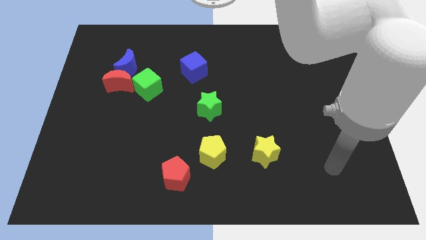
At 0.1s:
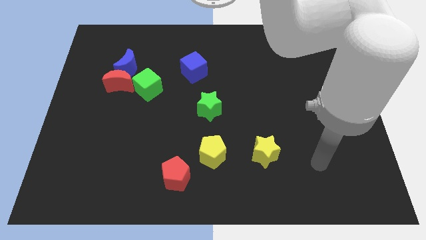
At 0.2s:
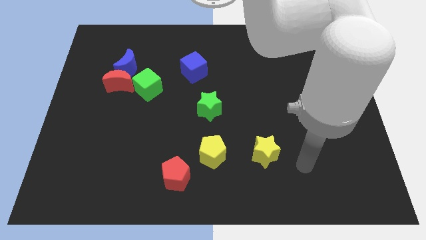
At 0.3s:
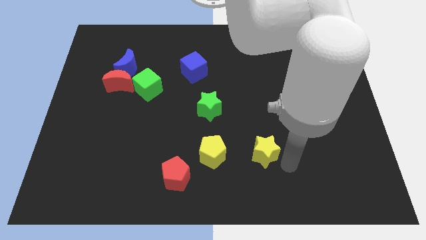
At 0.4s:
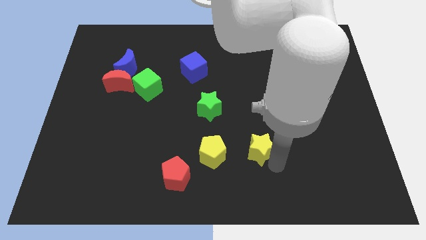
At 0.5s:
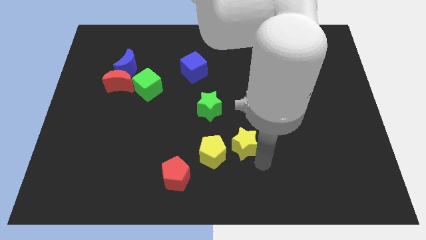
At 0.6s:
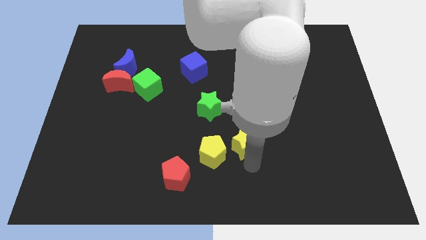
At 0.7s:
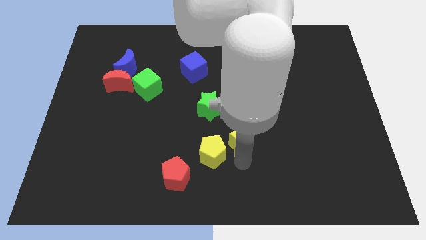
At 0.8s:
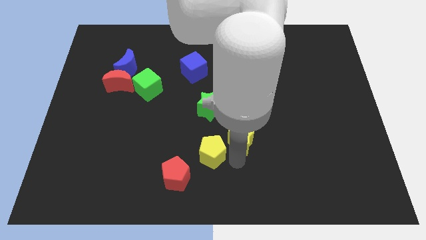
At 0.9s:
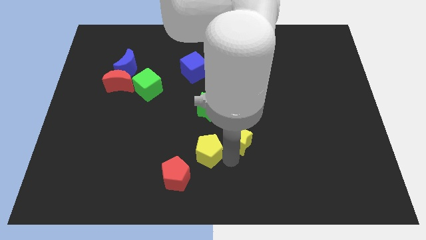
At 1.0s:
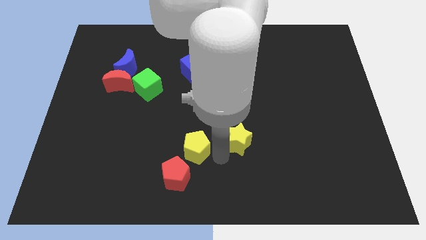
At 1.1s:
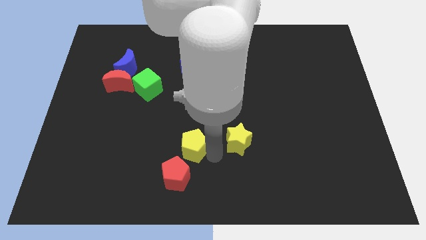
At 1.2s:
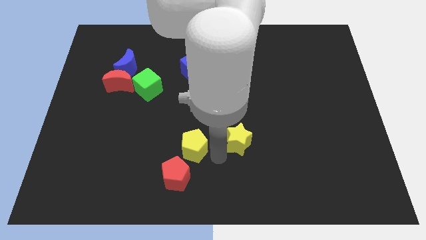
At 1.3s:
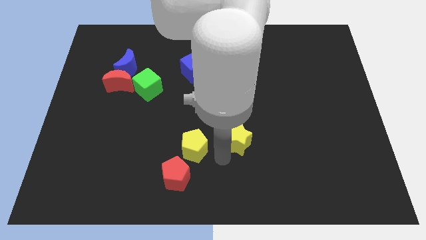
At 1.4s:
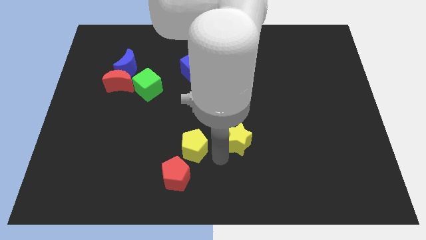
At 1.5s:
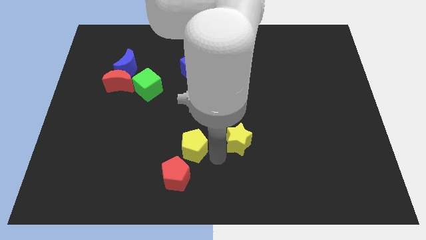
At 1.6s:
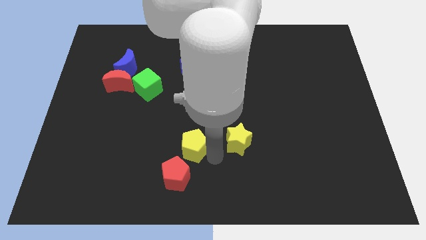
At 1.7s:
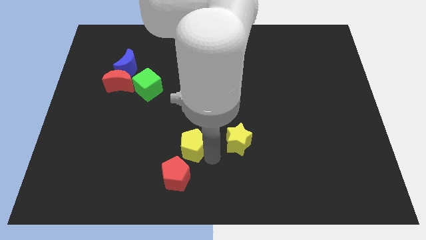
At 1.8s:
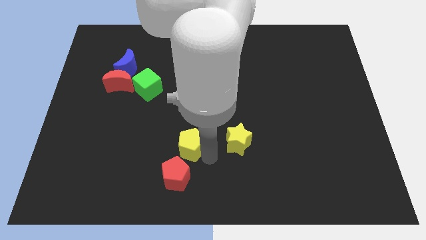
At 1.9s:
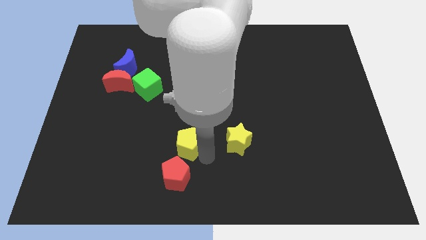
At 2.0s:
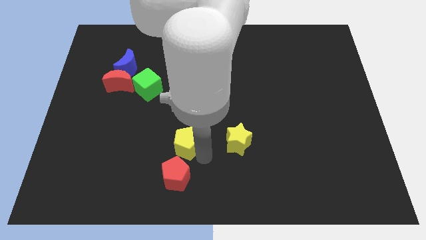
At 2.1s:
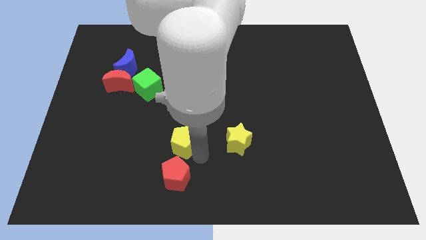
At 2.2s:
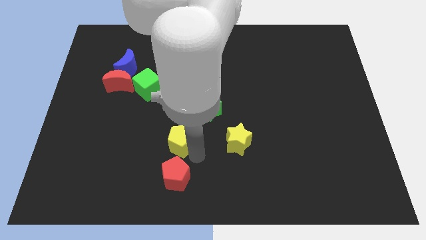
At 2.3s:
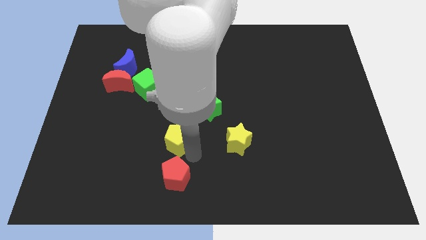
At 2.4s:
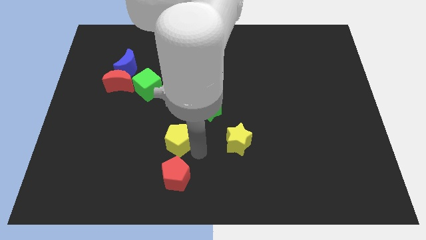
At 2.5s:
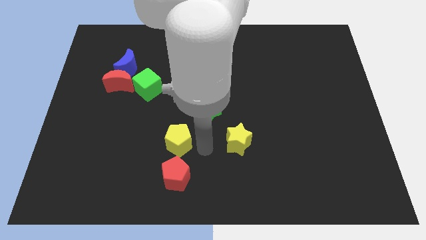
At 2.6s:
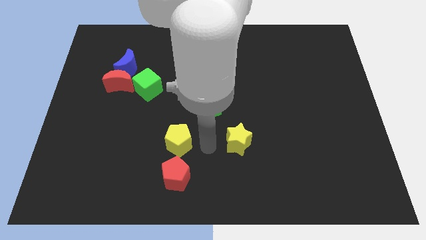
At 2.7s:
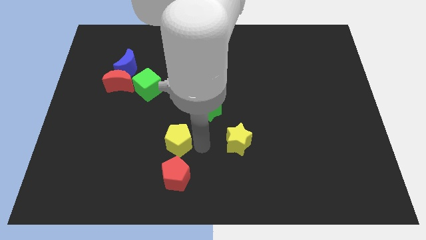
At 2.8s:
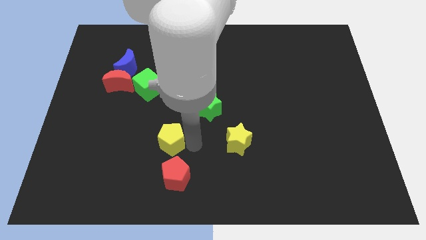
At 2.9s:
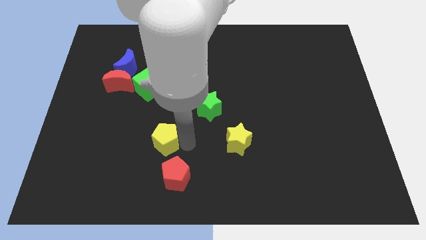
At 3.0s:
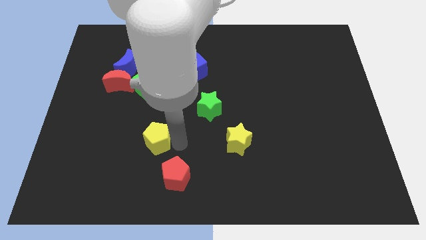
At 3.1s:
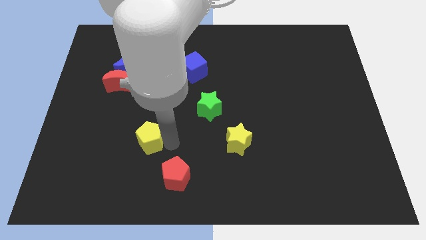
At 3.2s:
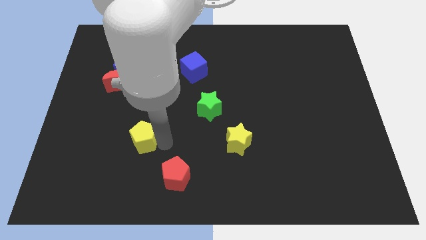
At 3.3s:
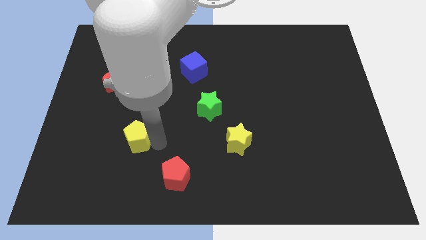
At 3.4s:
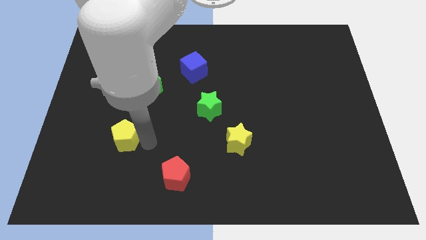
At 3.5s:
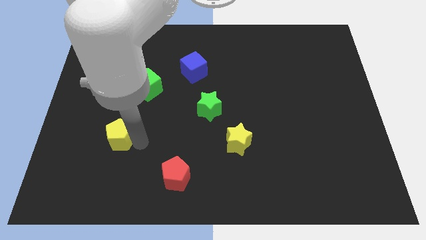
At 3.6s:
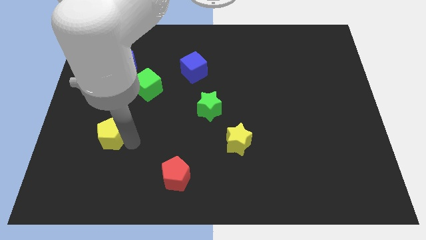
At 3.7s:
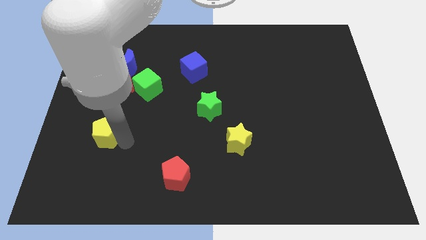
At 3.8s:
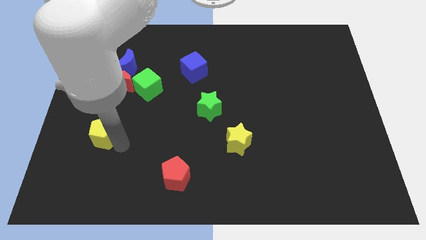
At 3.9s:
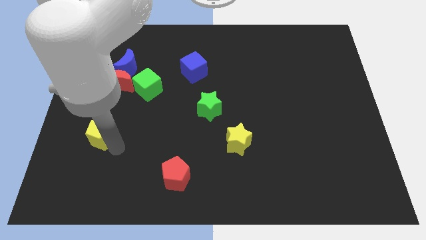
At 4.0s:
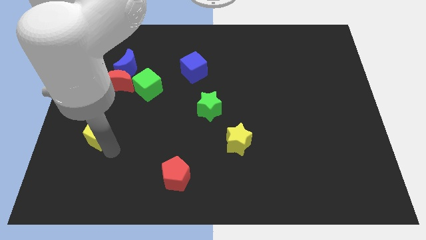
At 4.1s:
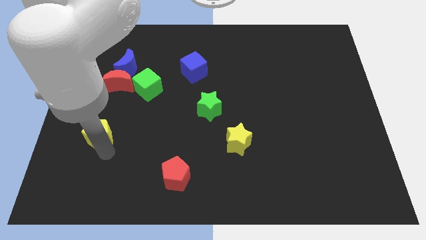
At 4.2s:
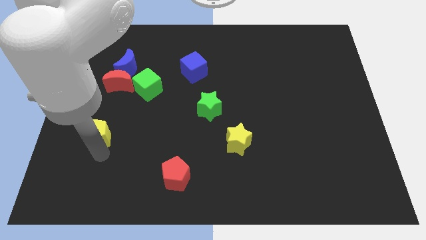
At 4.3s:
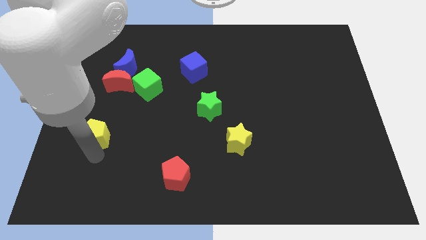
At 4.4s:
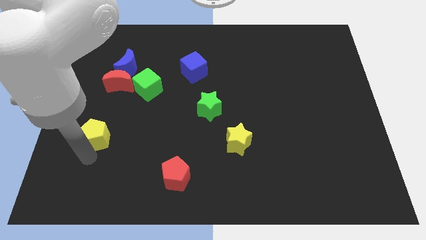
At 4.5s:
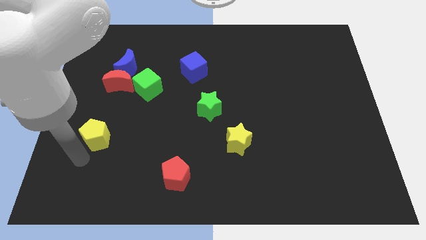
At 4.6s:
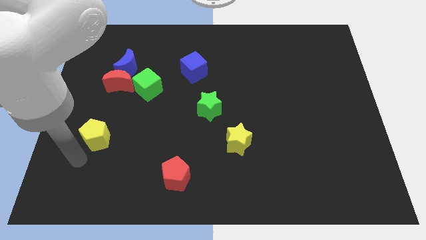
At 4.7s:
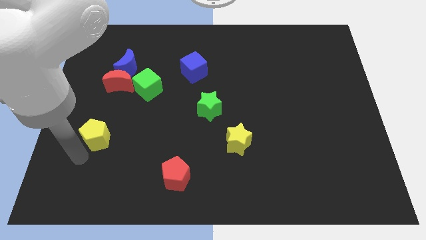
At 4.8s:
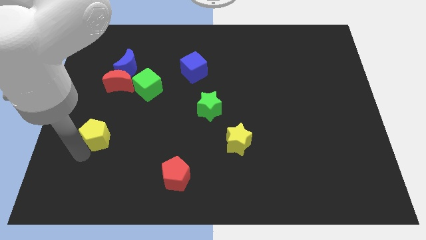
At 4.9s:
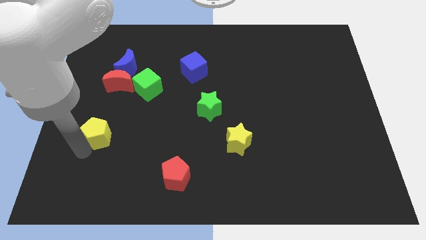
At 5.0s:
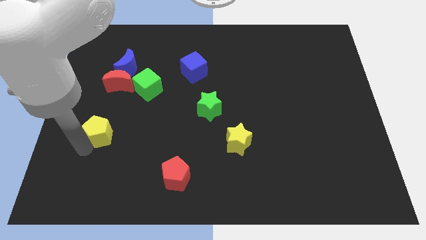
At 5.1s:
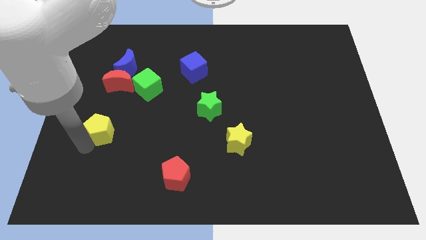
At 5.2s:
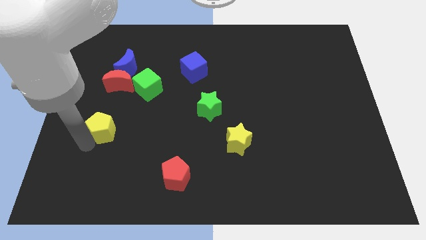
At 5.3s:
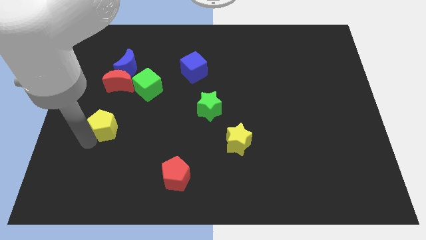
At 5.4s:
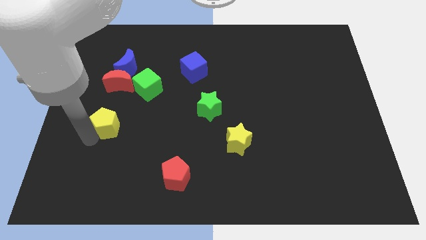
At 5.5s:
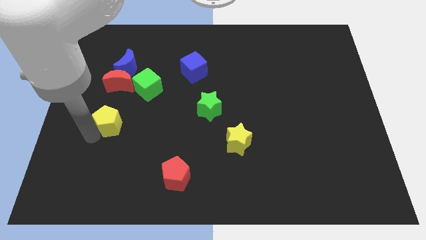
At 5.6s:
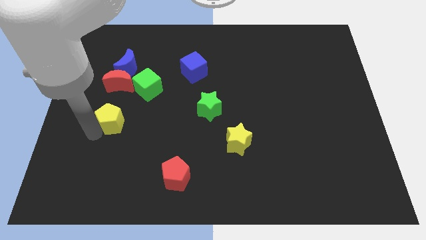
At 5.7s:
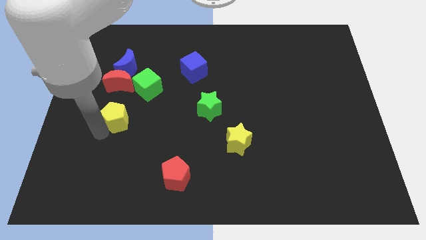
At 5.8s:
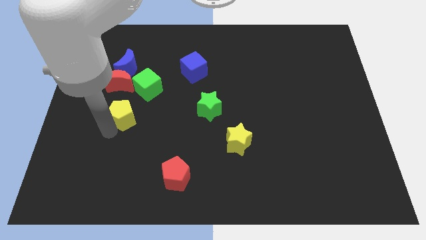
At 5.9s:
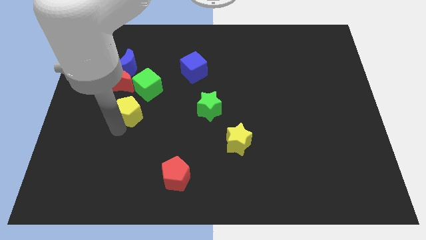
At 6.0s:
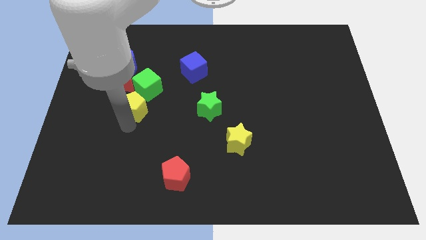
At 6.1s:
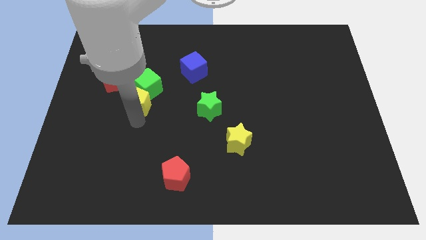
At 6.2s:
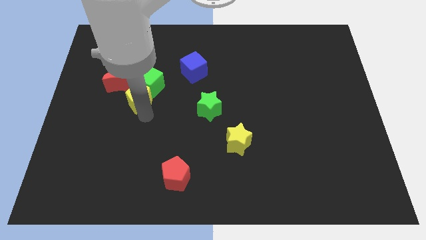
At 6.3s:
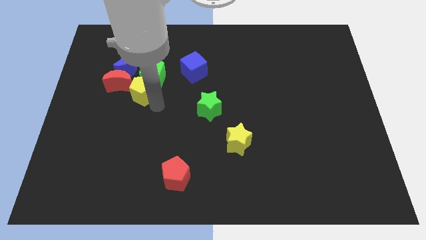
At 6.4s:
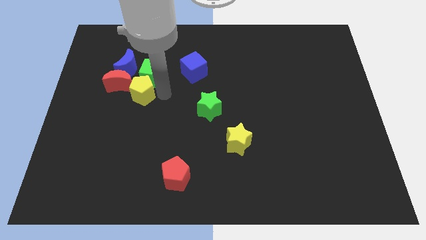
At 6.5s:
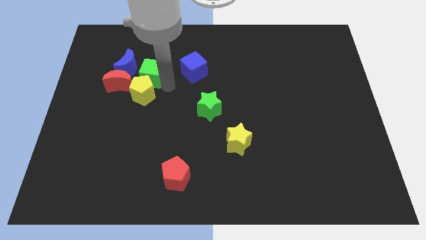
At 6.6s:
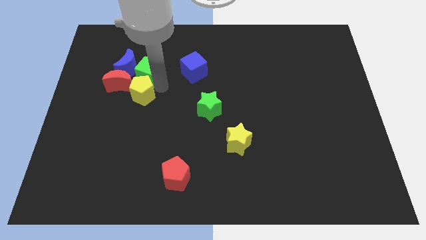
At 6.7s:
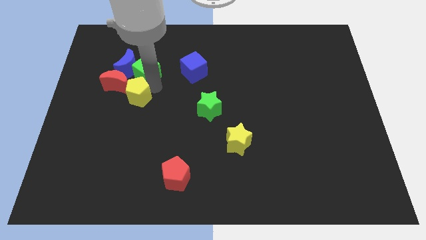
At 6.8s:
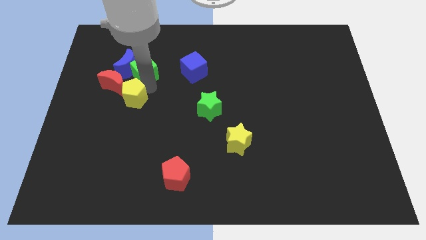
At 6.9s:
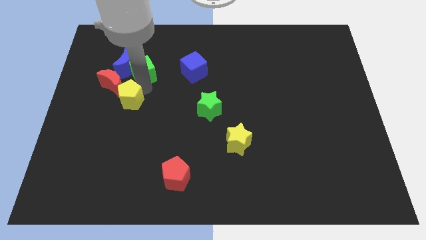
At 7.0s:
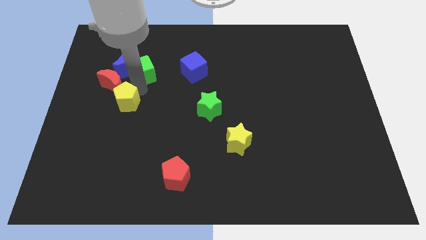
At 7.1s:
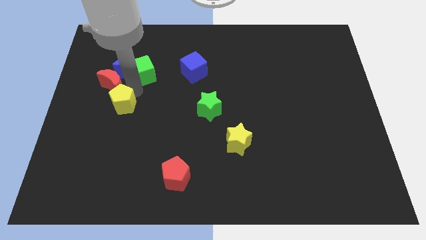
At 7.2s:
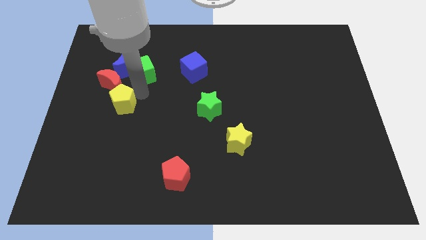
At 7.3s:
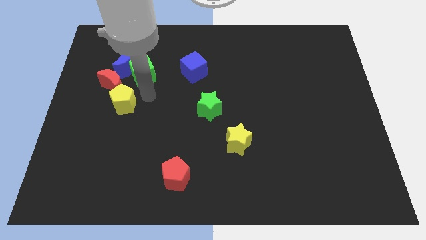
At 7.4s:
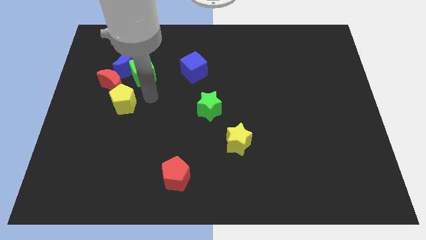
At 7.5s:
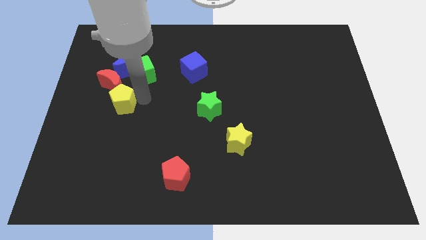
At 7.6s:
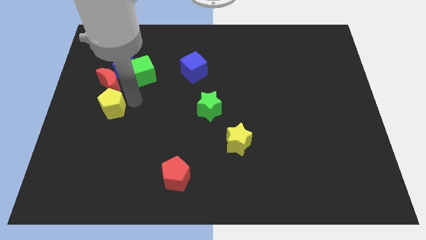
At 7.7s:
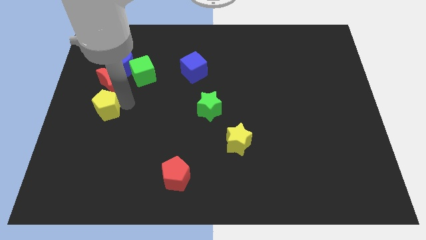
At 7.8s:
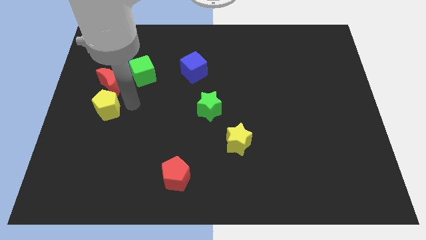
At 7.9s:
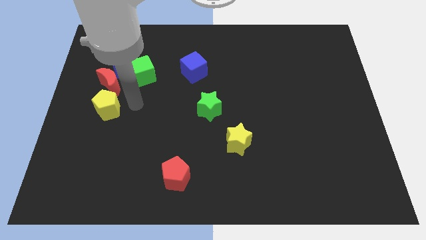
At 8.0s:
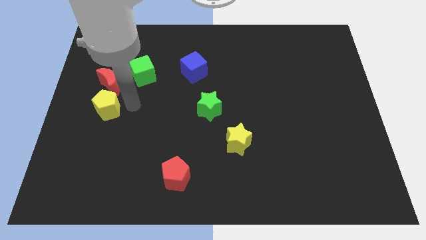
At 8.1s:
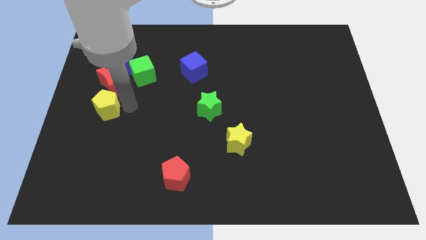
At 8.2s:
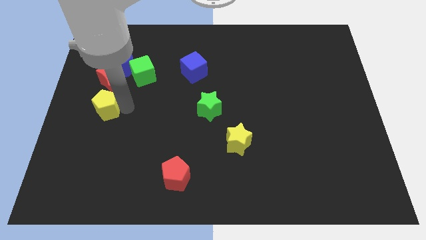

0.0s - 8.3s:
push the yellow pentagon to the center left
